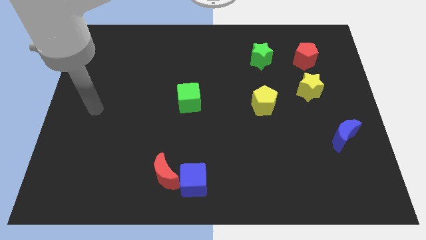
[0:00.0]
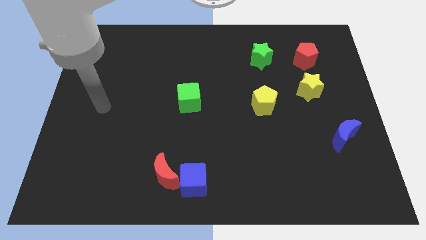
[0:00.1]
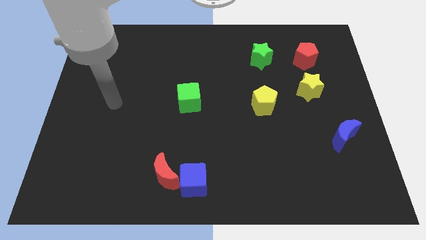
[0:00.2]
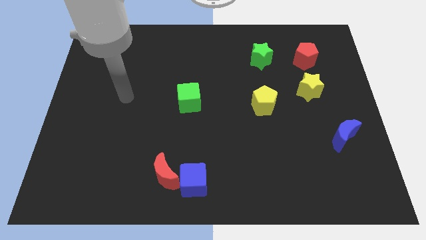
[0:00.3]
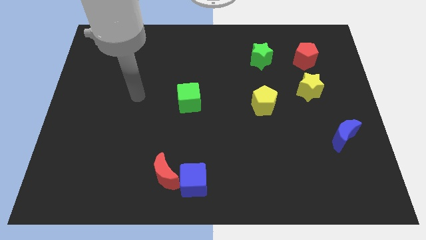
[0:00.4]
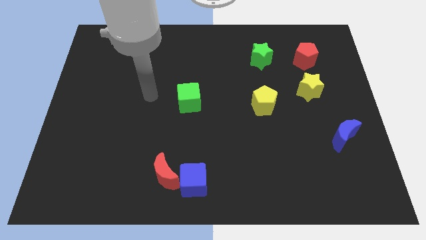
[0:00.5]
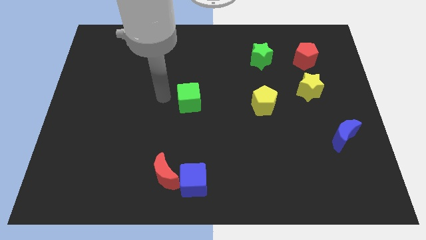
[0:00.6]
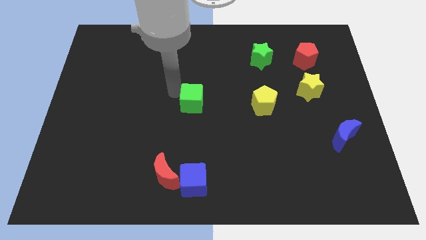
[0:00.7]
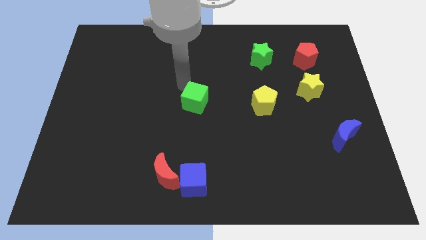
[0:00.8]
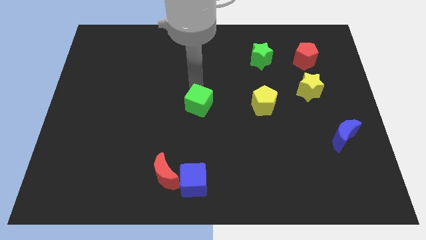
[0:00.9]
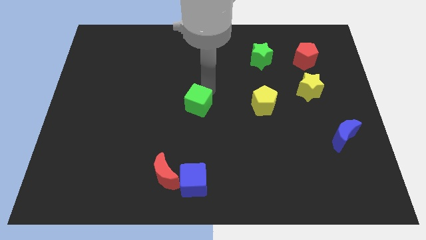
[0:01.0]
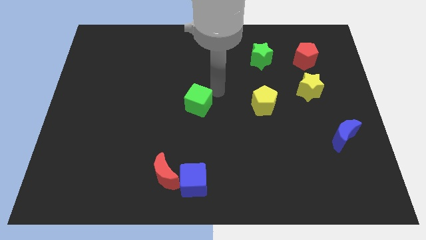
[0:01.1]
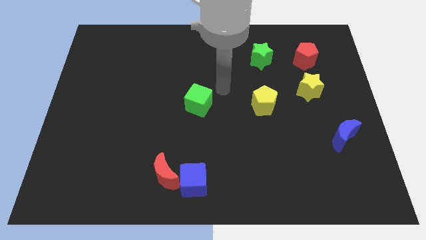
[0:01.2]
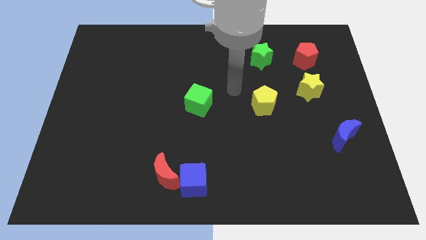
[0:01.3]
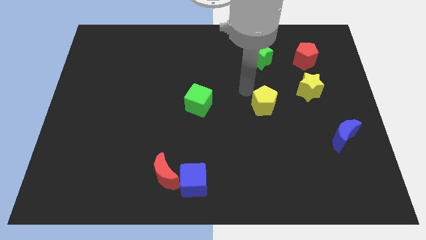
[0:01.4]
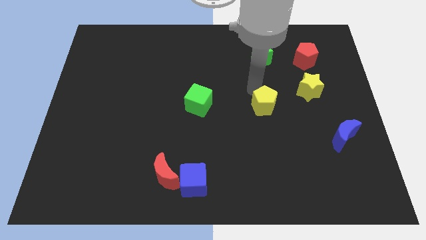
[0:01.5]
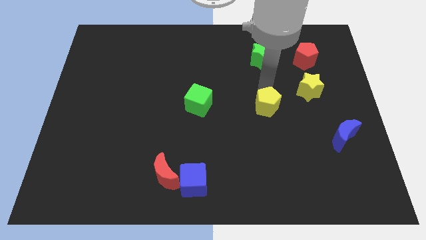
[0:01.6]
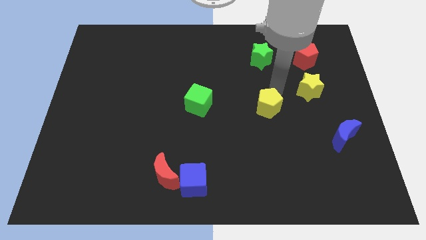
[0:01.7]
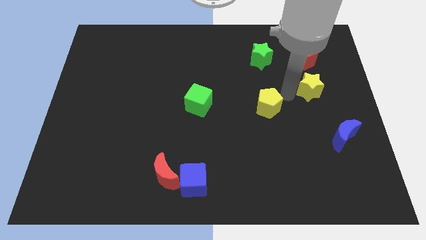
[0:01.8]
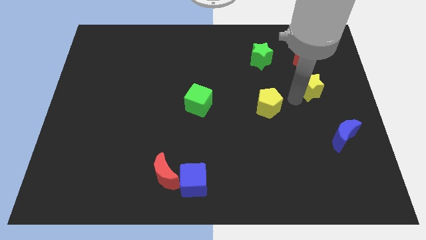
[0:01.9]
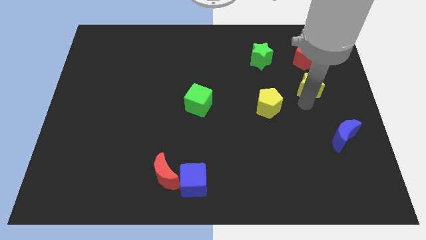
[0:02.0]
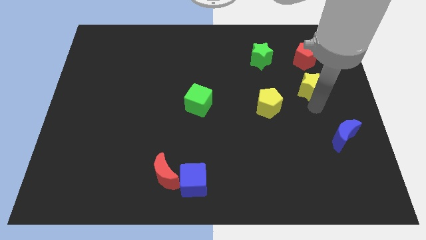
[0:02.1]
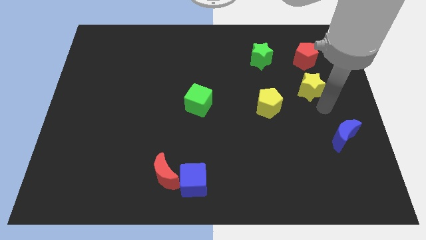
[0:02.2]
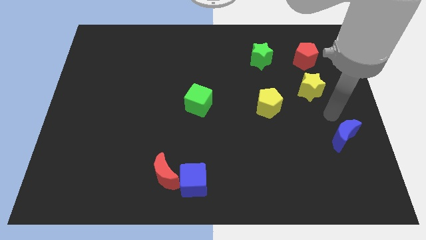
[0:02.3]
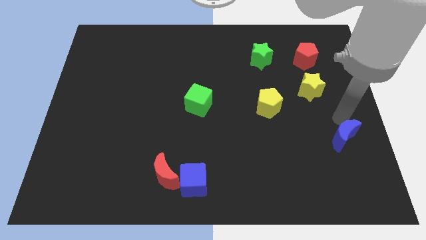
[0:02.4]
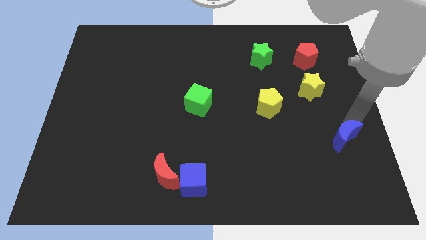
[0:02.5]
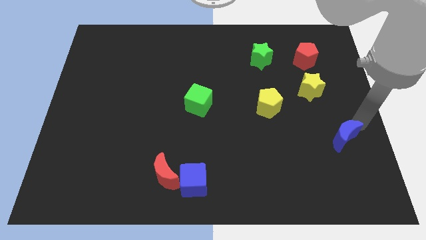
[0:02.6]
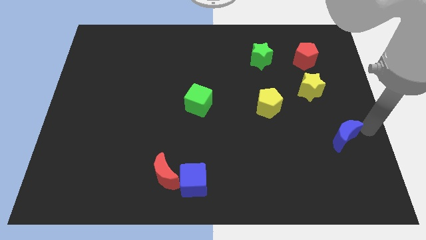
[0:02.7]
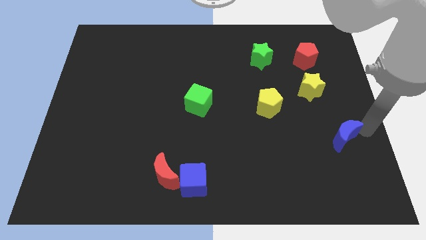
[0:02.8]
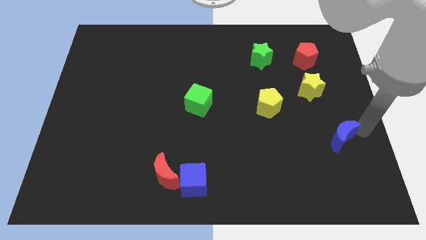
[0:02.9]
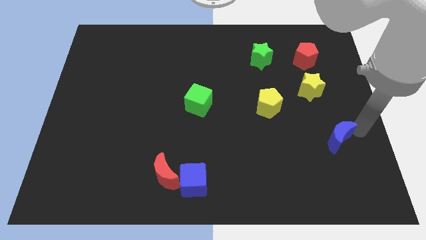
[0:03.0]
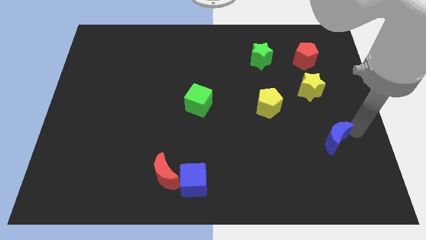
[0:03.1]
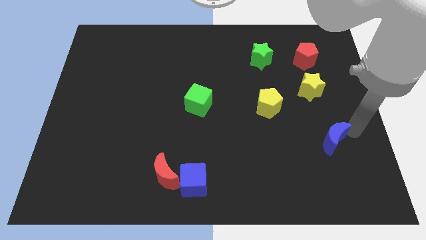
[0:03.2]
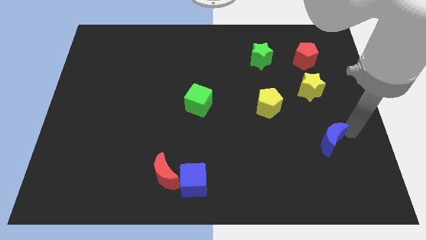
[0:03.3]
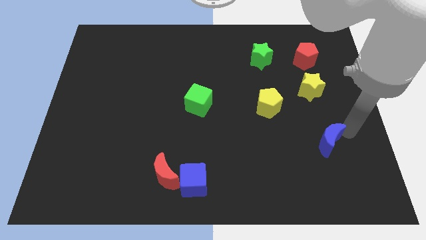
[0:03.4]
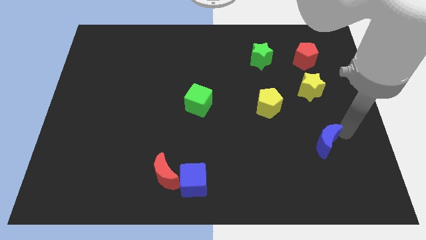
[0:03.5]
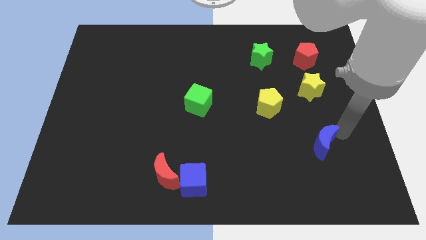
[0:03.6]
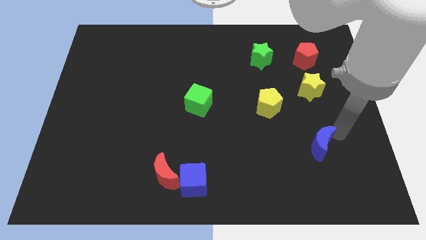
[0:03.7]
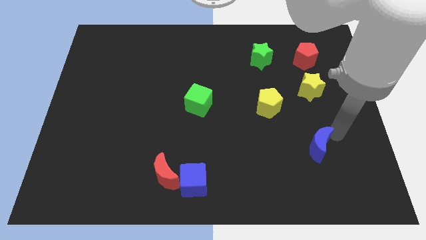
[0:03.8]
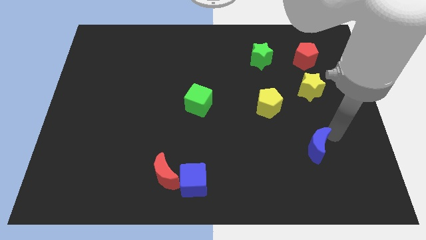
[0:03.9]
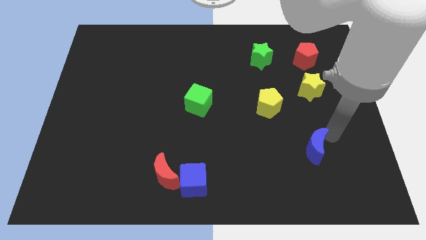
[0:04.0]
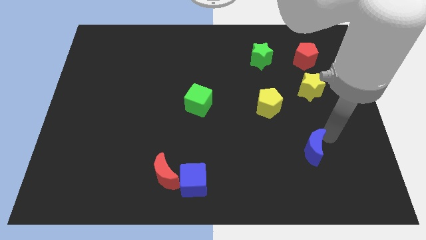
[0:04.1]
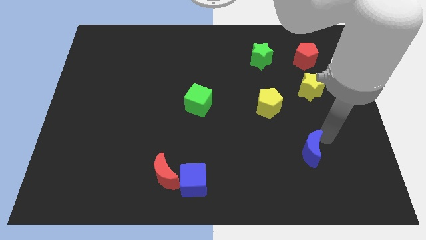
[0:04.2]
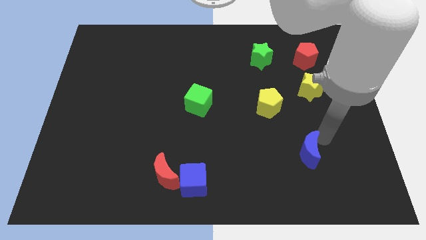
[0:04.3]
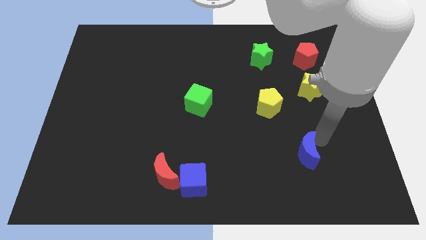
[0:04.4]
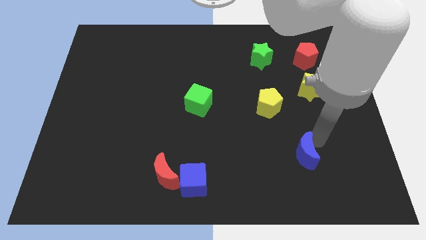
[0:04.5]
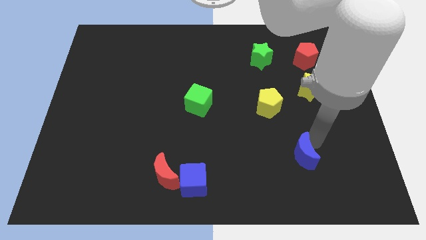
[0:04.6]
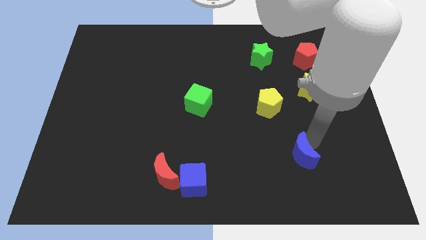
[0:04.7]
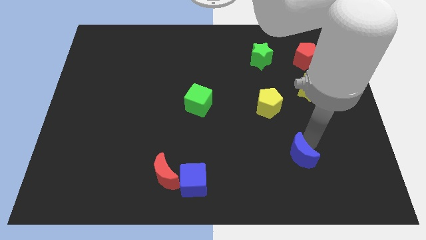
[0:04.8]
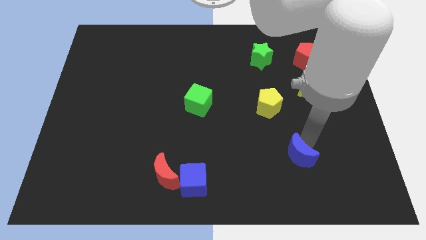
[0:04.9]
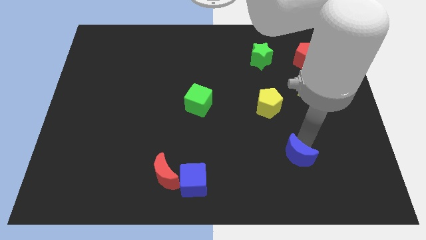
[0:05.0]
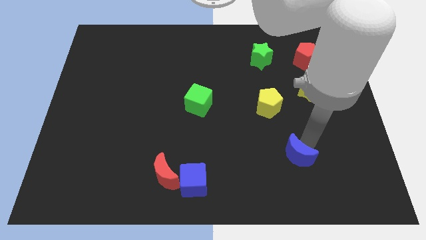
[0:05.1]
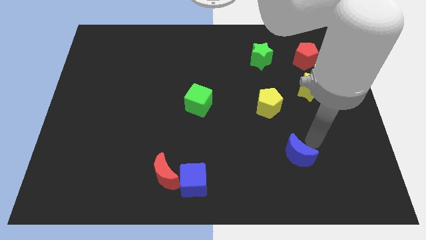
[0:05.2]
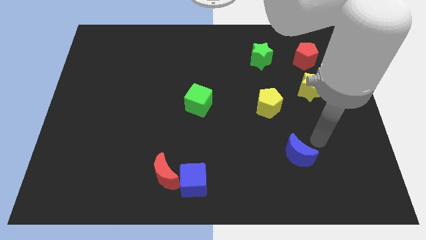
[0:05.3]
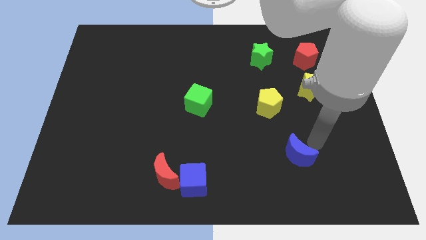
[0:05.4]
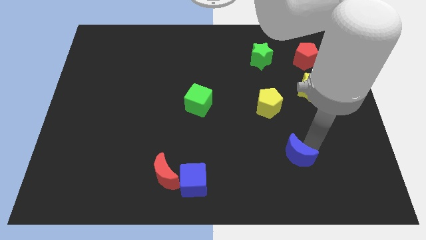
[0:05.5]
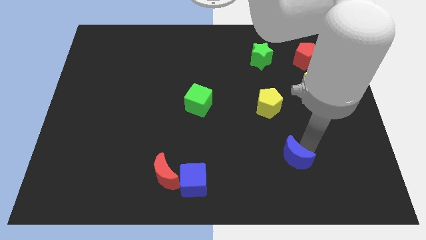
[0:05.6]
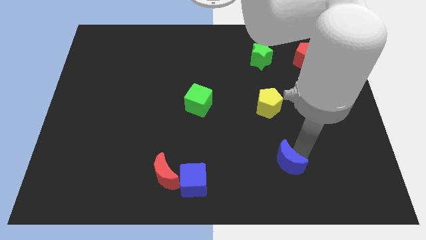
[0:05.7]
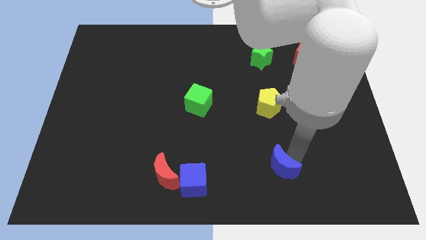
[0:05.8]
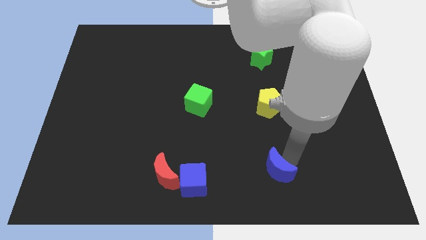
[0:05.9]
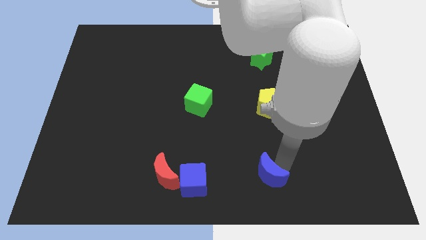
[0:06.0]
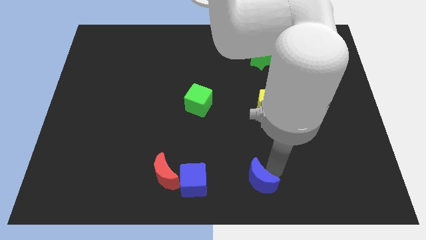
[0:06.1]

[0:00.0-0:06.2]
push the blue moon to the bottom
